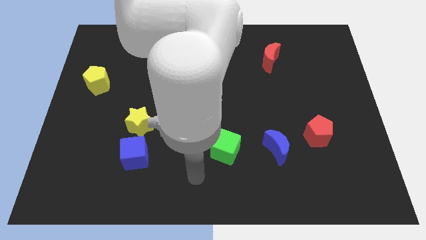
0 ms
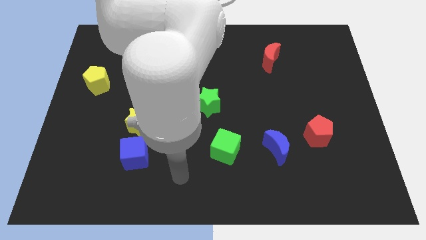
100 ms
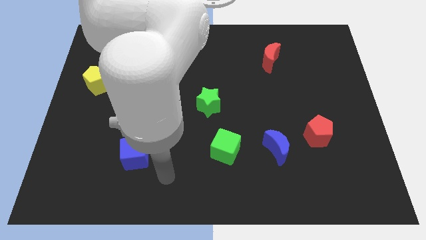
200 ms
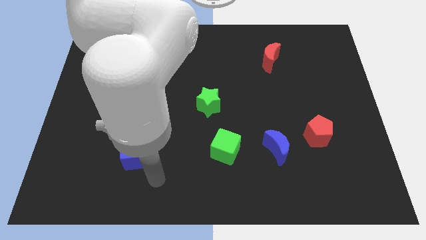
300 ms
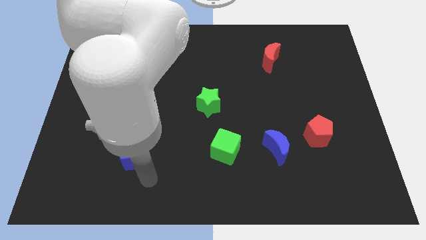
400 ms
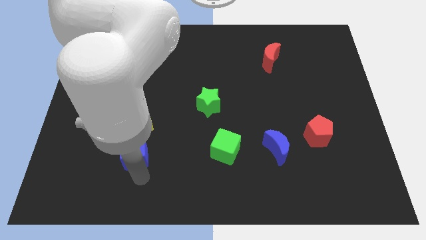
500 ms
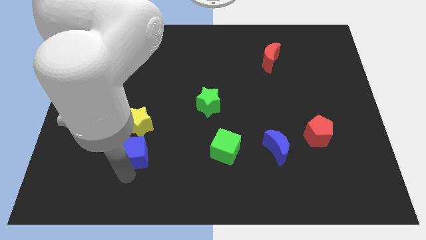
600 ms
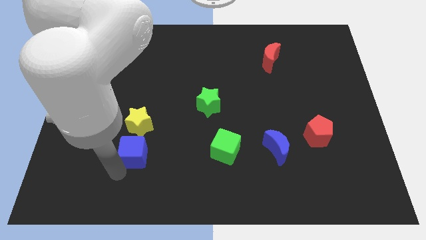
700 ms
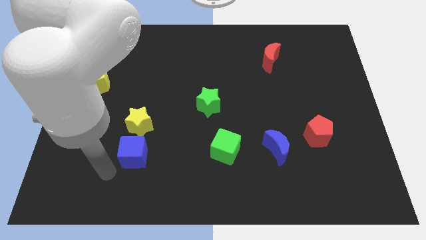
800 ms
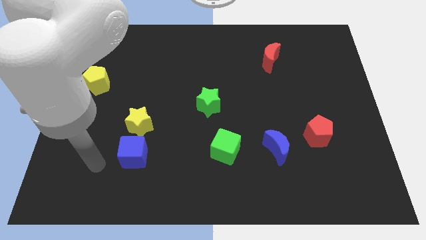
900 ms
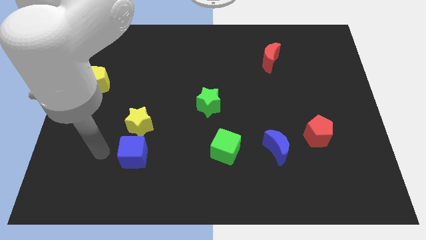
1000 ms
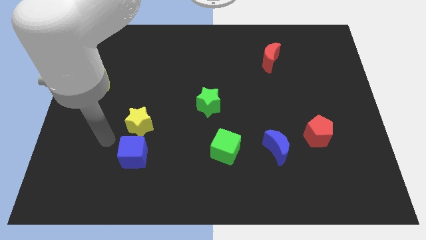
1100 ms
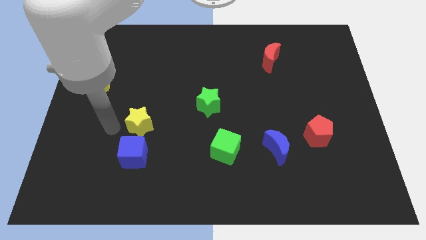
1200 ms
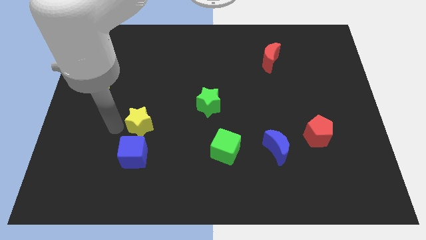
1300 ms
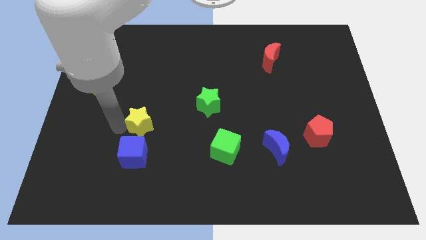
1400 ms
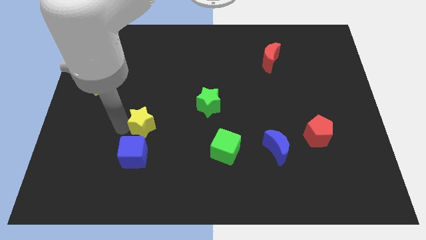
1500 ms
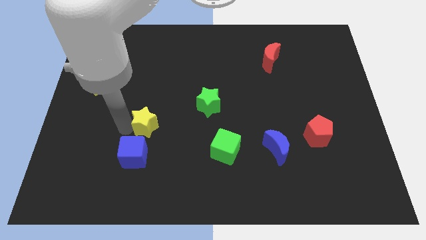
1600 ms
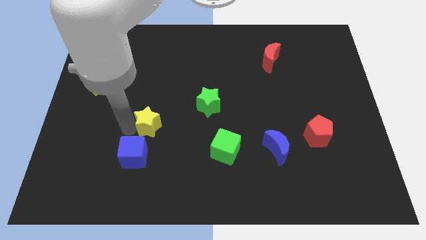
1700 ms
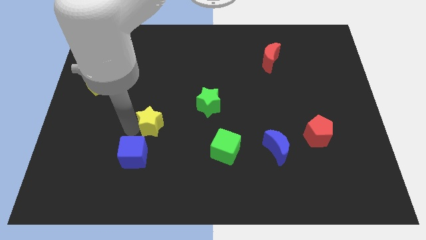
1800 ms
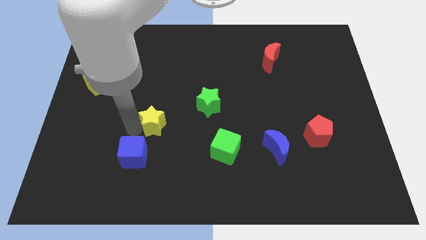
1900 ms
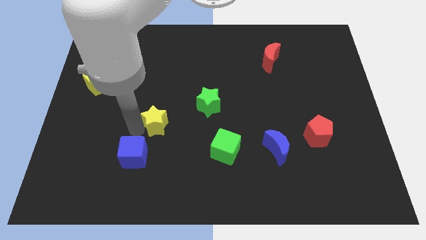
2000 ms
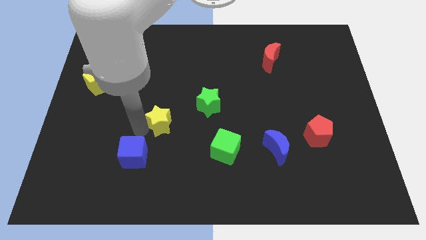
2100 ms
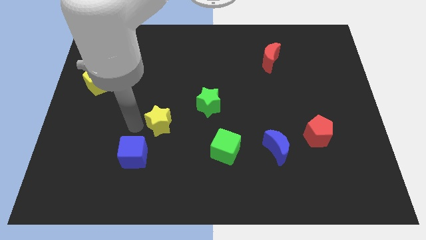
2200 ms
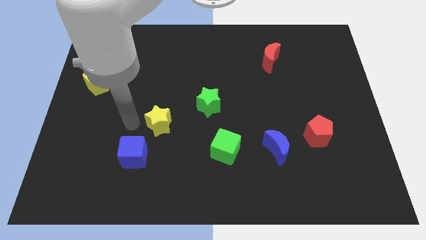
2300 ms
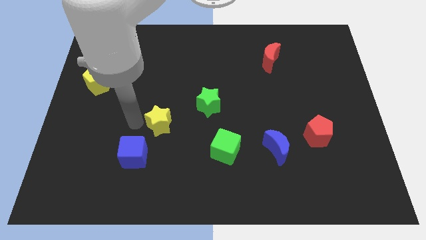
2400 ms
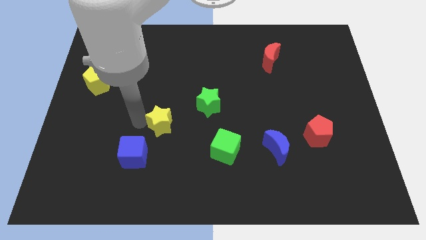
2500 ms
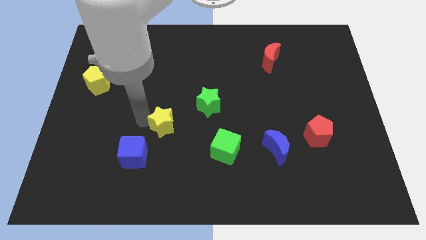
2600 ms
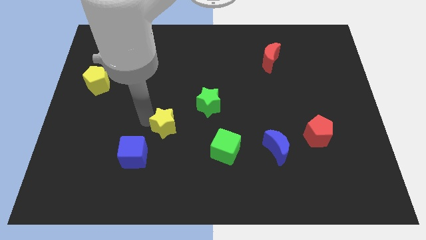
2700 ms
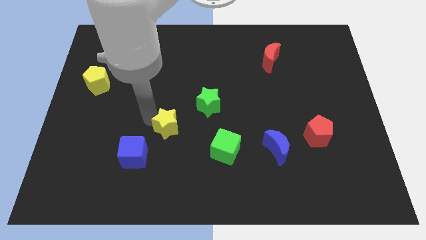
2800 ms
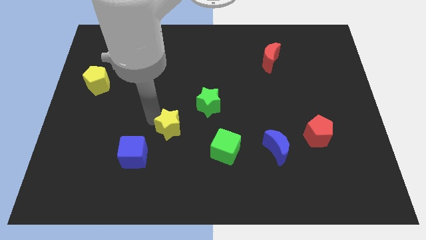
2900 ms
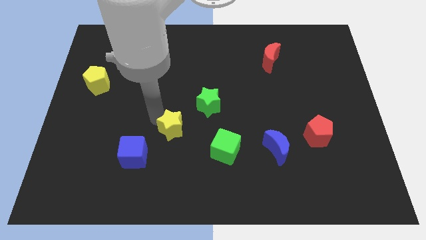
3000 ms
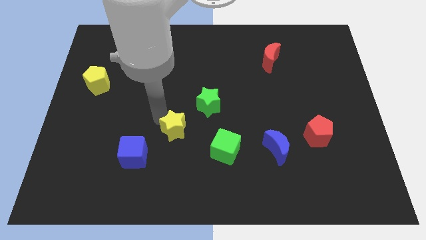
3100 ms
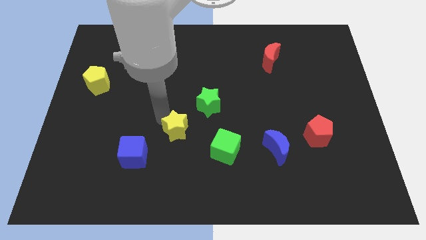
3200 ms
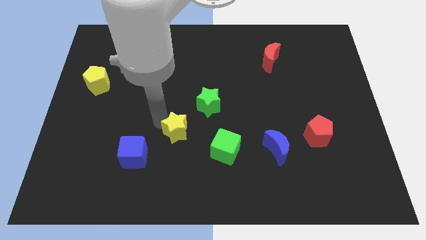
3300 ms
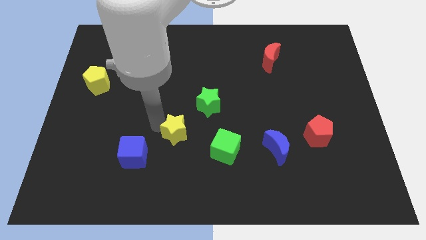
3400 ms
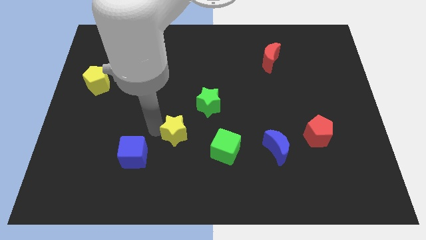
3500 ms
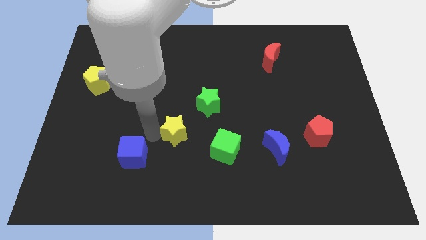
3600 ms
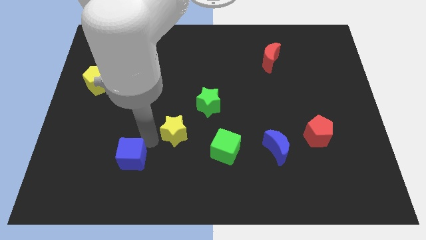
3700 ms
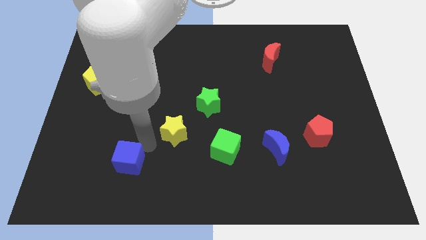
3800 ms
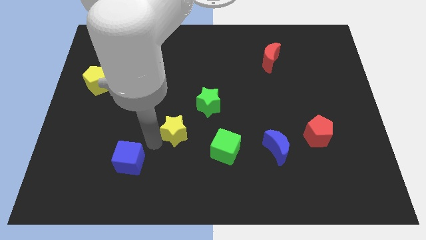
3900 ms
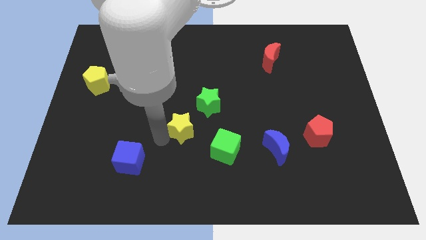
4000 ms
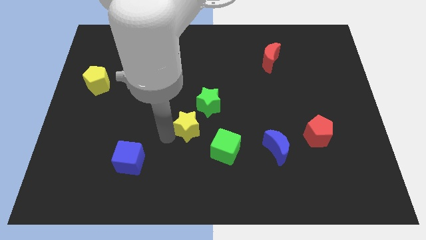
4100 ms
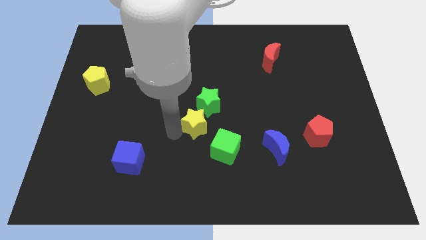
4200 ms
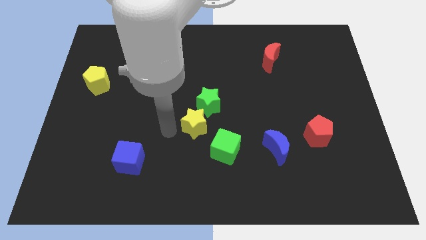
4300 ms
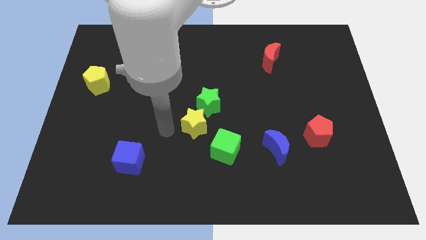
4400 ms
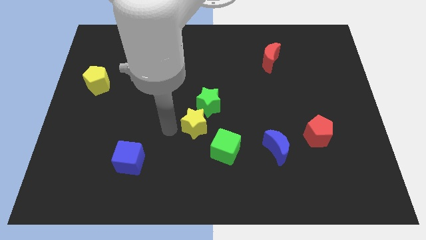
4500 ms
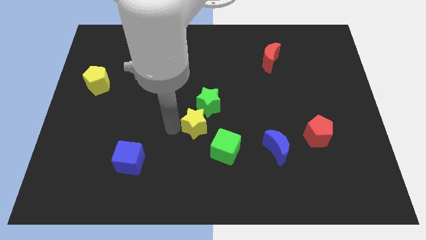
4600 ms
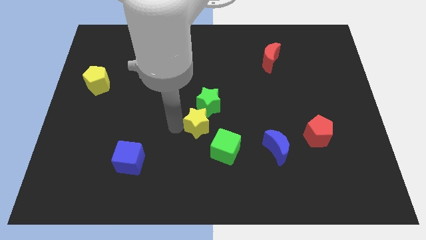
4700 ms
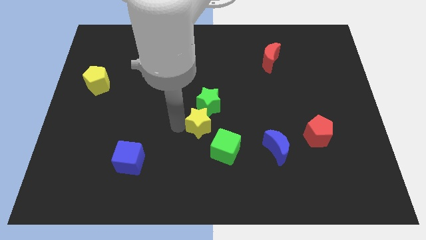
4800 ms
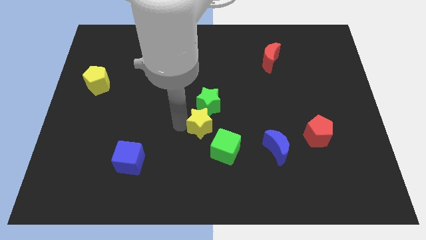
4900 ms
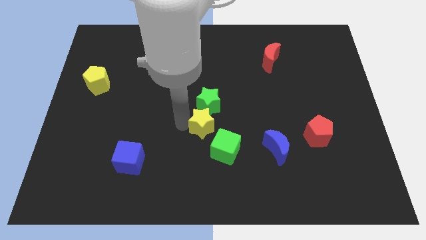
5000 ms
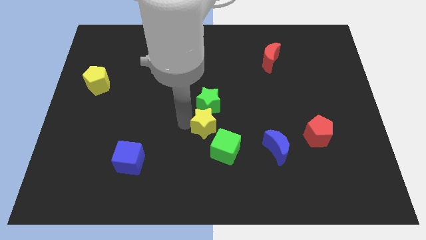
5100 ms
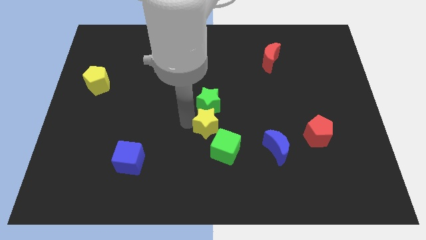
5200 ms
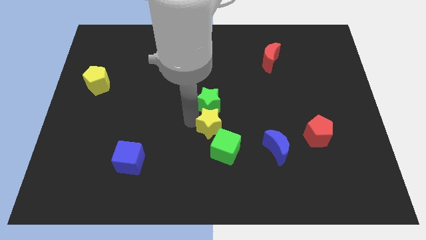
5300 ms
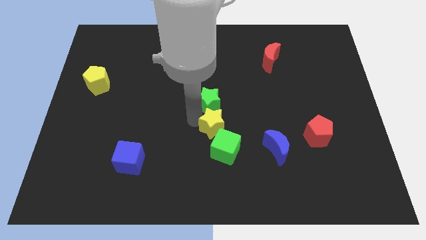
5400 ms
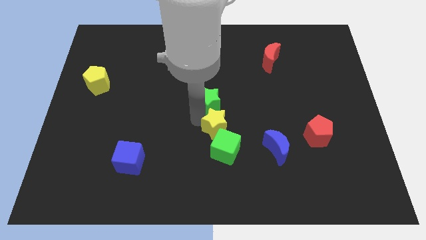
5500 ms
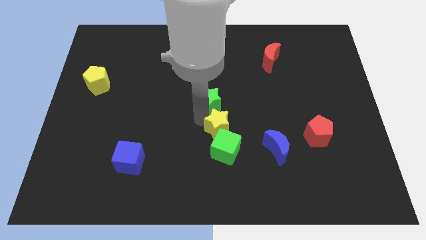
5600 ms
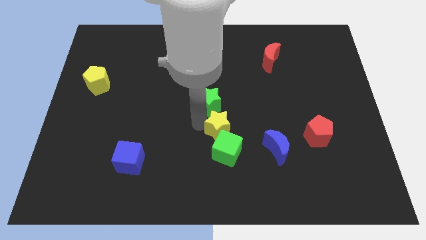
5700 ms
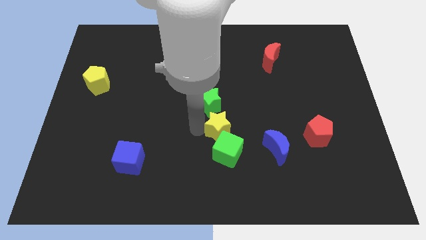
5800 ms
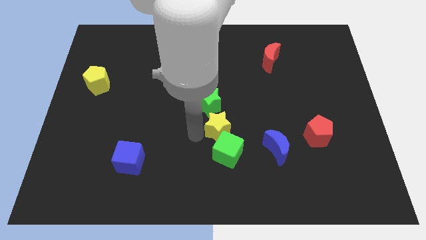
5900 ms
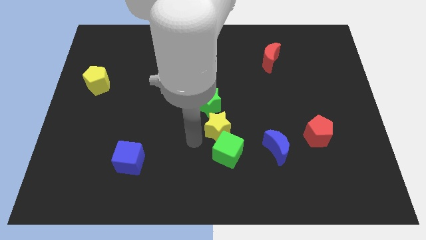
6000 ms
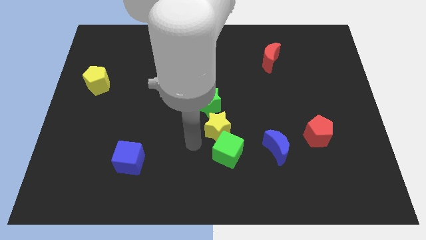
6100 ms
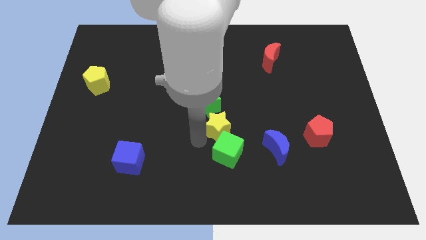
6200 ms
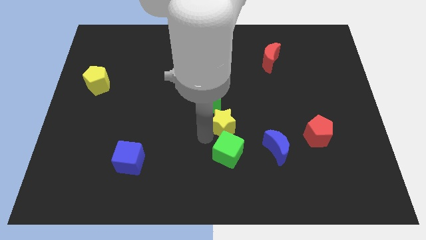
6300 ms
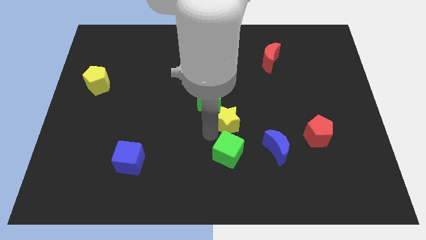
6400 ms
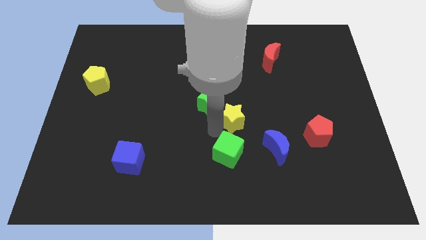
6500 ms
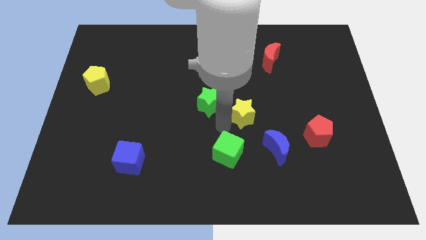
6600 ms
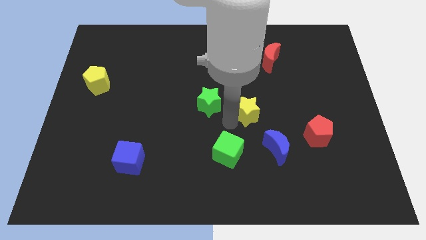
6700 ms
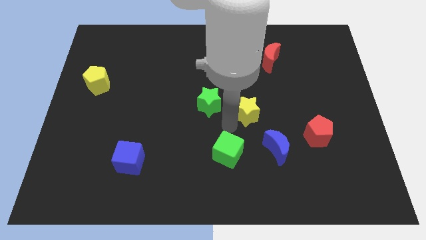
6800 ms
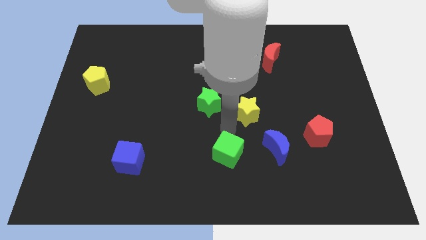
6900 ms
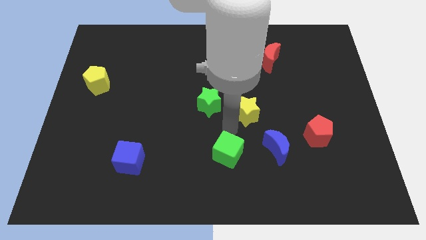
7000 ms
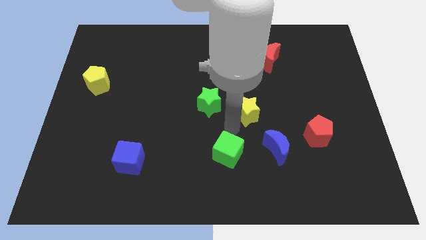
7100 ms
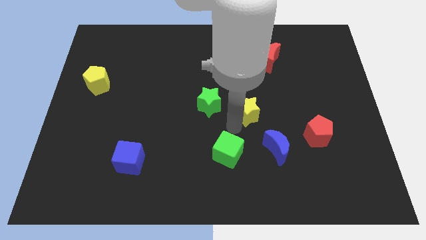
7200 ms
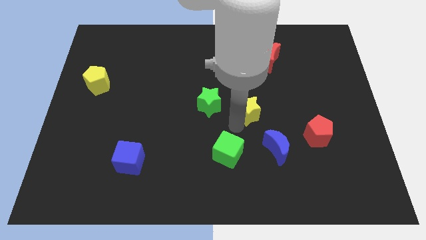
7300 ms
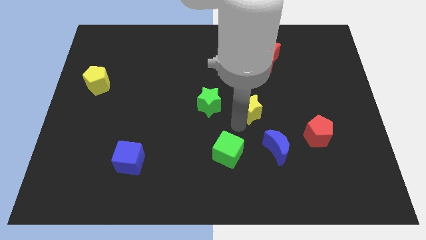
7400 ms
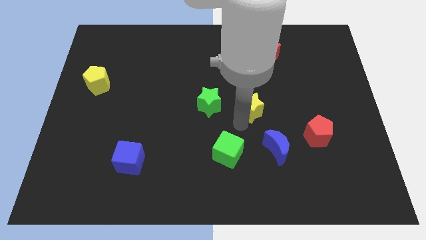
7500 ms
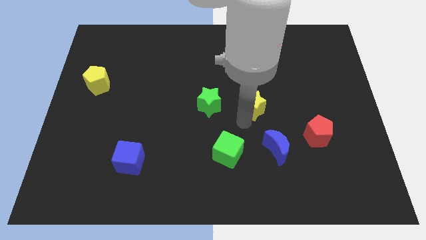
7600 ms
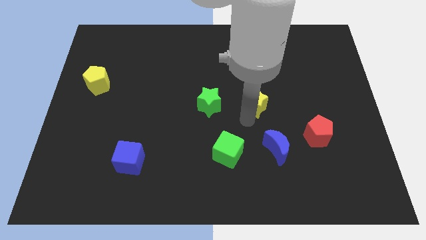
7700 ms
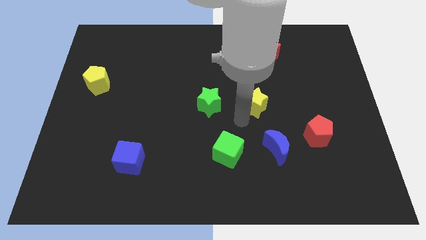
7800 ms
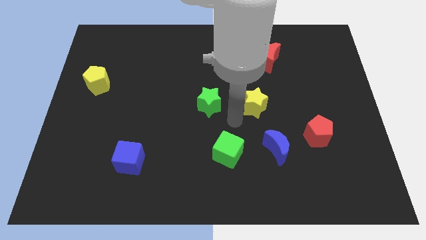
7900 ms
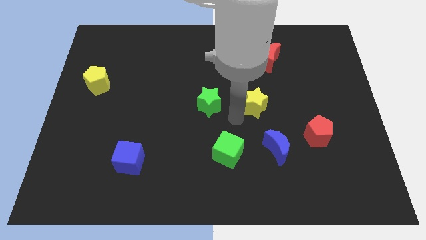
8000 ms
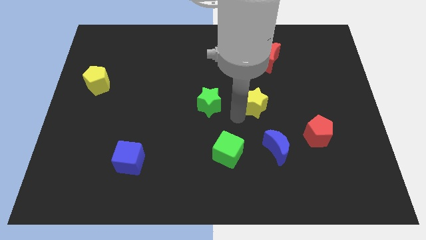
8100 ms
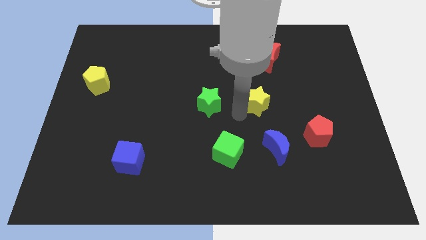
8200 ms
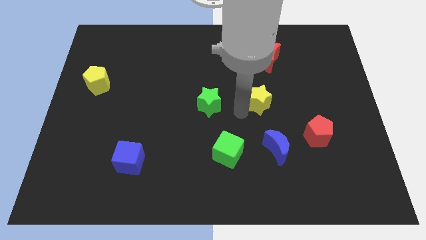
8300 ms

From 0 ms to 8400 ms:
put the yellow star to the bottom side of the red moon
